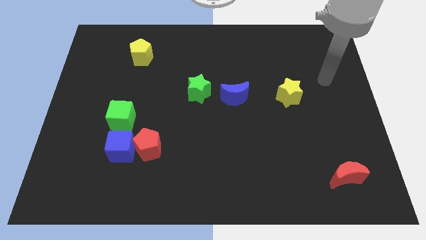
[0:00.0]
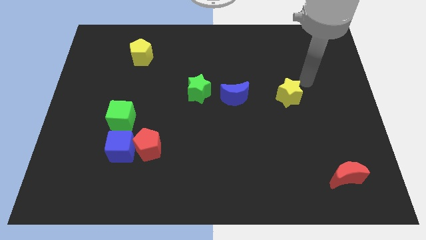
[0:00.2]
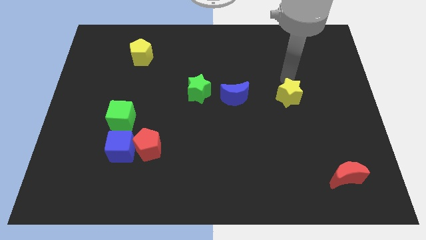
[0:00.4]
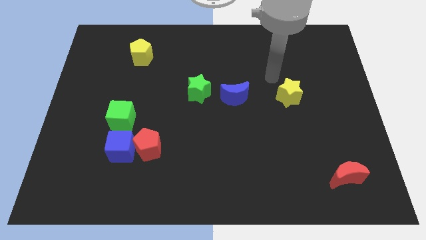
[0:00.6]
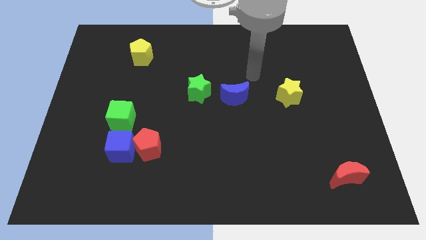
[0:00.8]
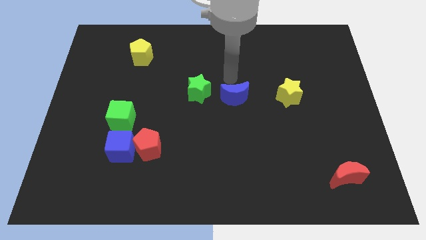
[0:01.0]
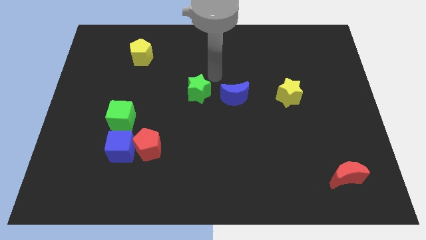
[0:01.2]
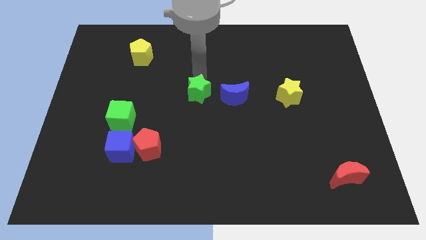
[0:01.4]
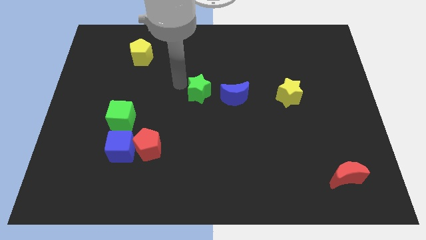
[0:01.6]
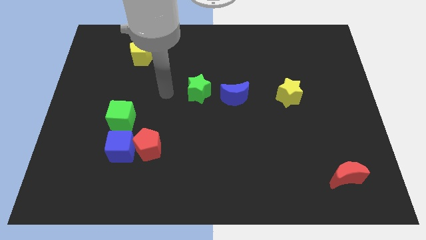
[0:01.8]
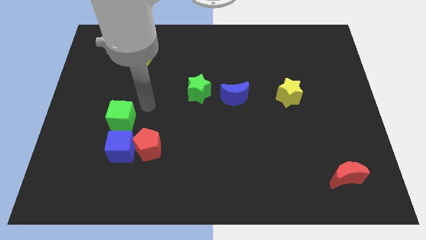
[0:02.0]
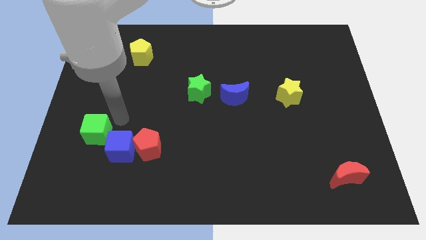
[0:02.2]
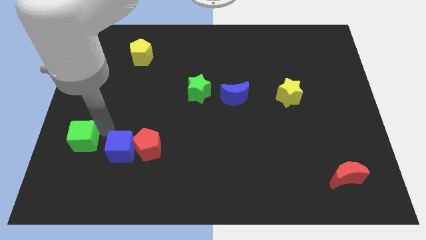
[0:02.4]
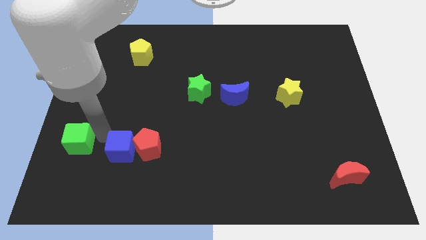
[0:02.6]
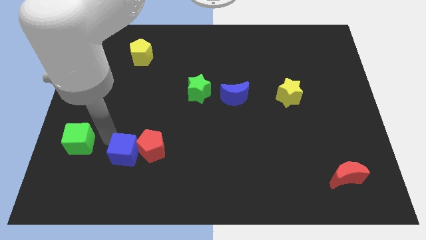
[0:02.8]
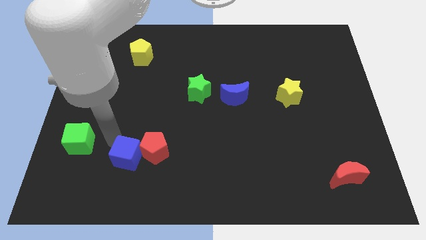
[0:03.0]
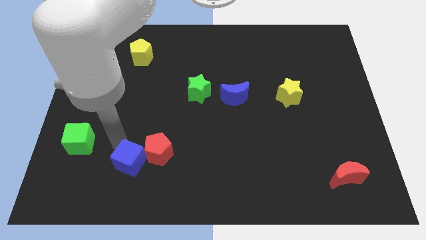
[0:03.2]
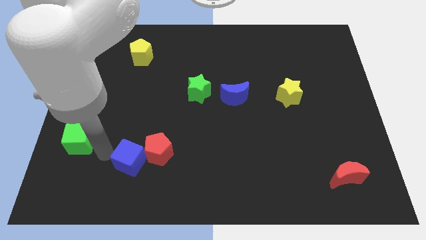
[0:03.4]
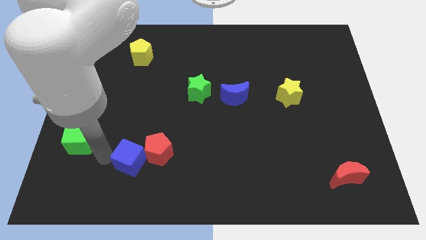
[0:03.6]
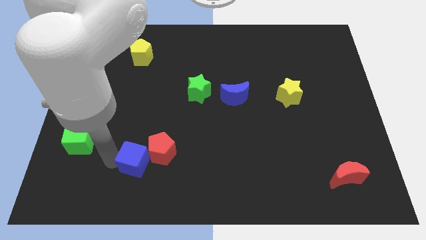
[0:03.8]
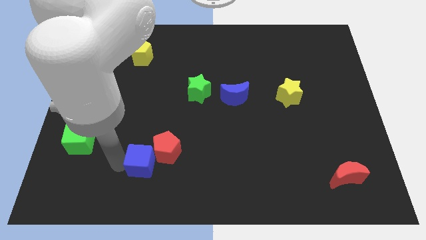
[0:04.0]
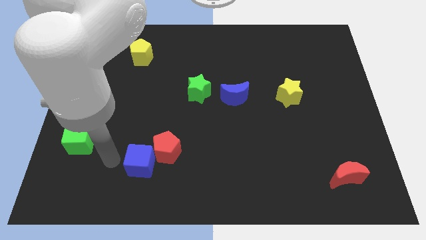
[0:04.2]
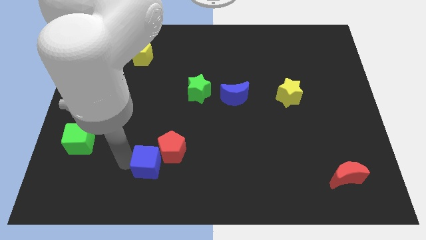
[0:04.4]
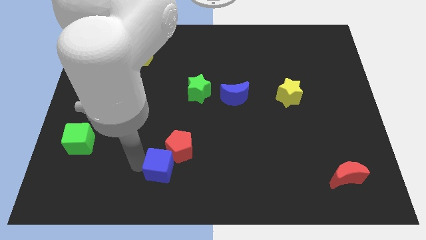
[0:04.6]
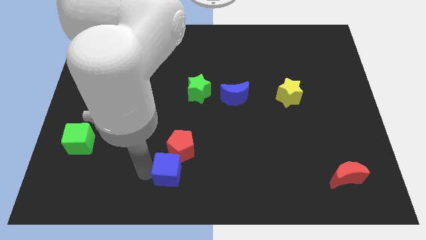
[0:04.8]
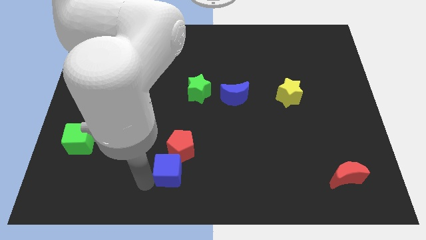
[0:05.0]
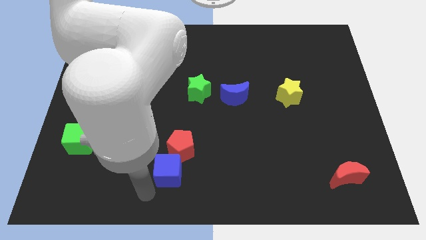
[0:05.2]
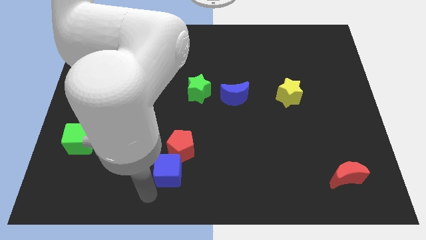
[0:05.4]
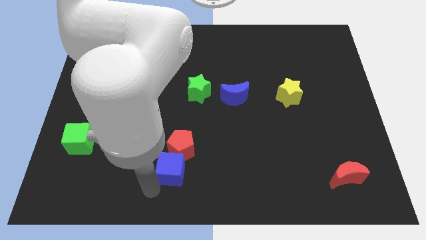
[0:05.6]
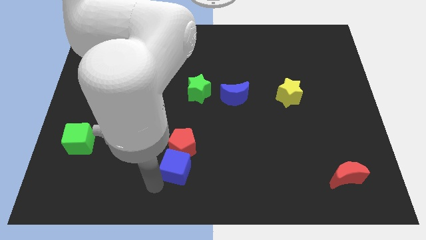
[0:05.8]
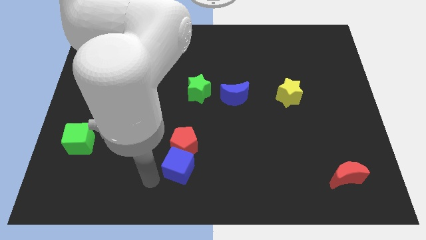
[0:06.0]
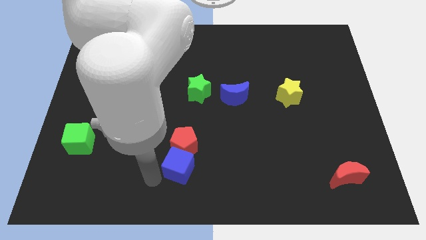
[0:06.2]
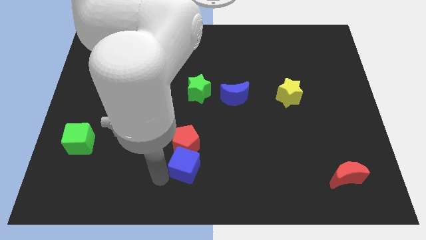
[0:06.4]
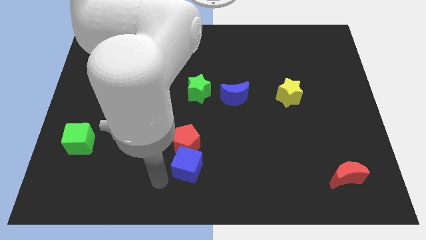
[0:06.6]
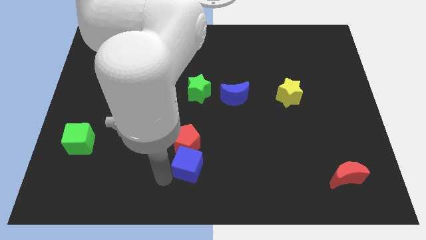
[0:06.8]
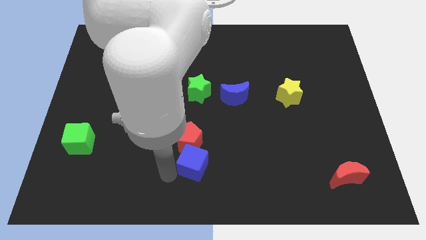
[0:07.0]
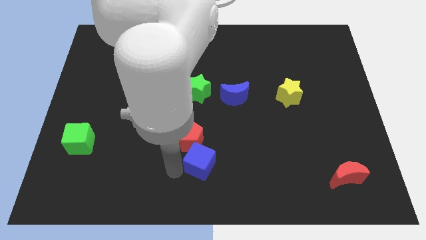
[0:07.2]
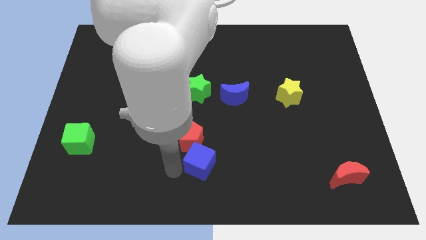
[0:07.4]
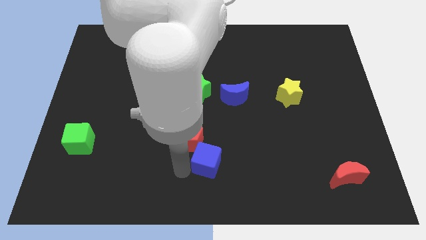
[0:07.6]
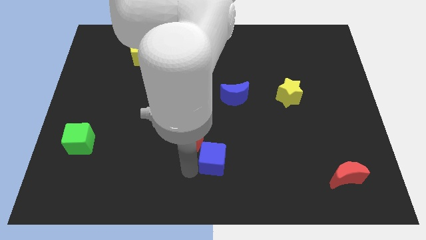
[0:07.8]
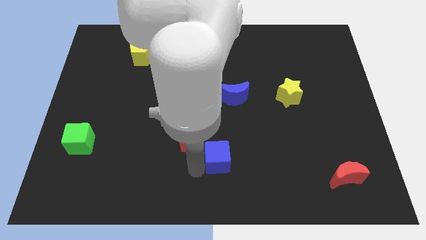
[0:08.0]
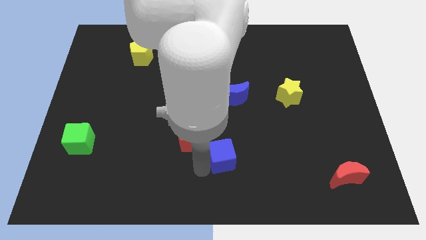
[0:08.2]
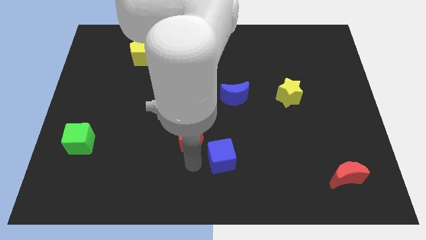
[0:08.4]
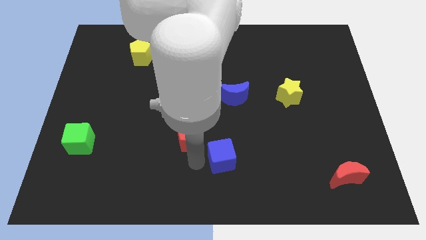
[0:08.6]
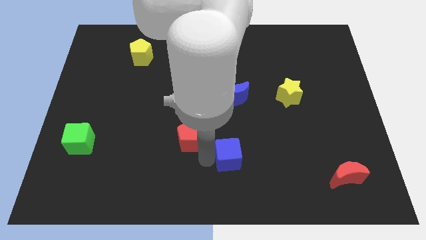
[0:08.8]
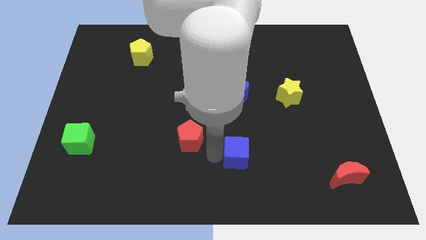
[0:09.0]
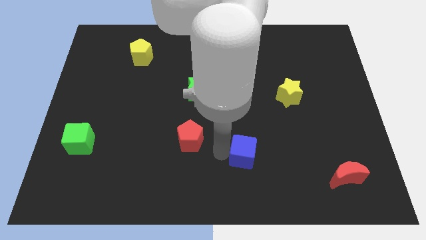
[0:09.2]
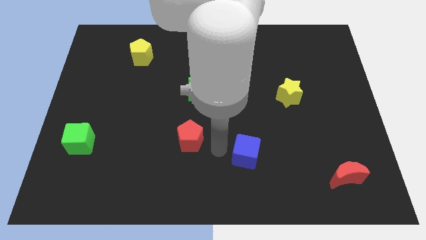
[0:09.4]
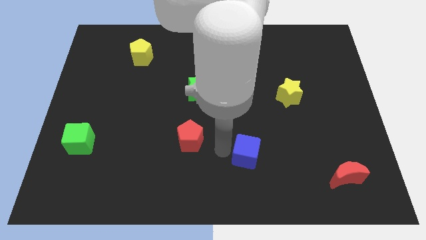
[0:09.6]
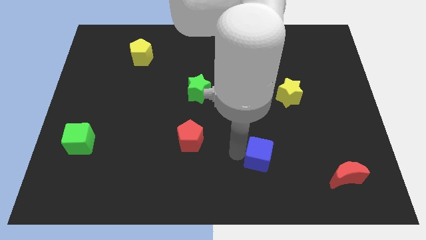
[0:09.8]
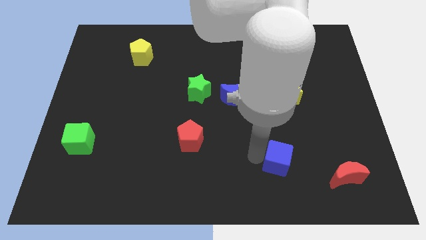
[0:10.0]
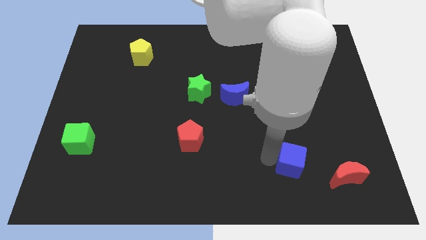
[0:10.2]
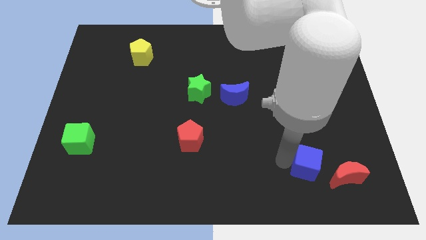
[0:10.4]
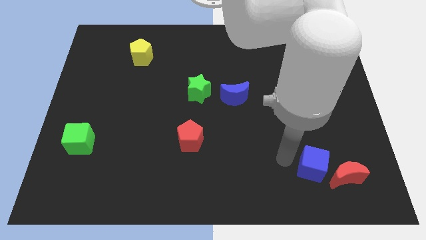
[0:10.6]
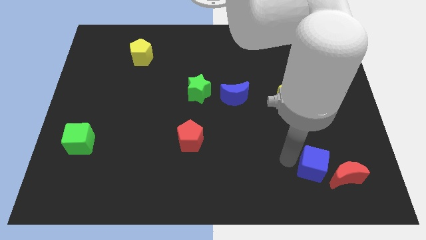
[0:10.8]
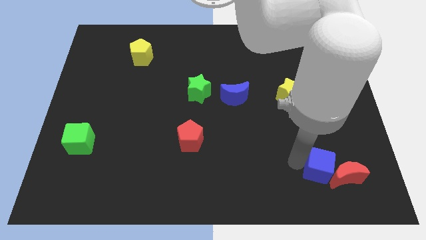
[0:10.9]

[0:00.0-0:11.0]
put the blue cube towards the red moon
